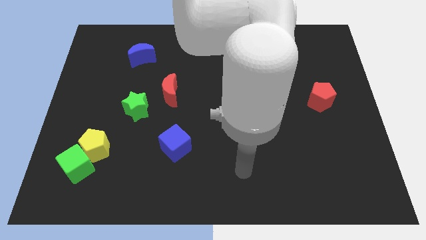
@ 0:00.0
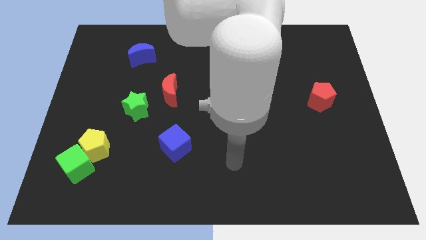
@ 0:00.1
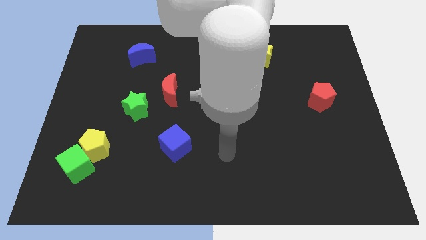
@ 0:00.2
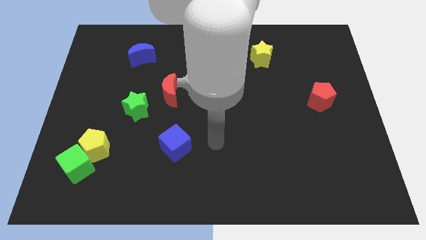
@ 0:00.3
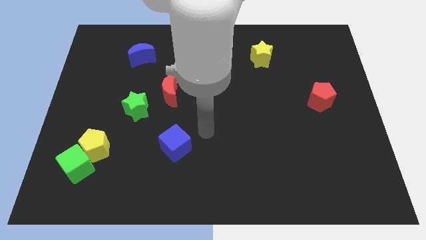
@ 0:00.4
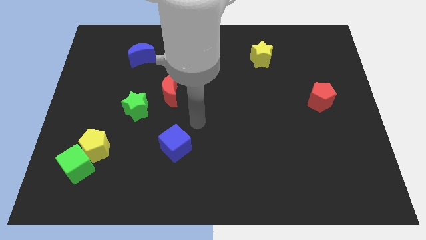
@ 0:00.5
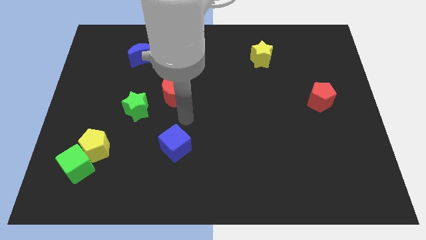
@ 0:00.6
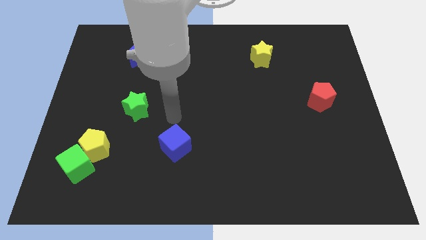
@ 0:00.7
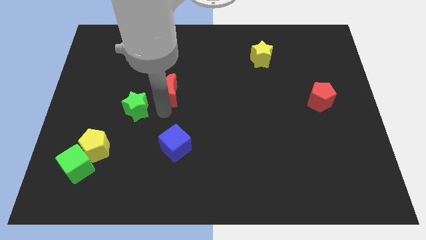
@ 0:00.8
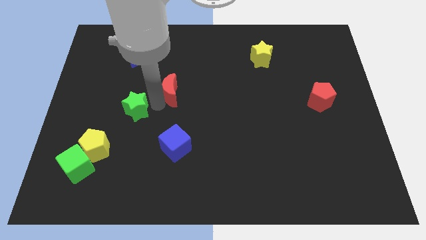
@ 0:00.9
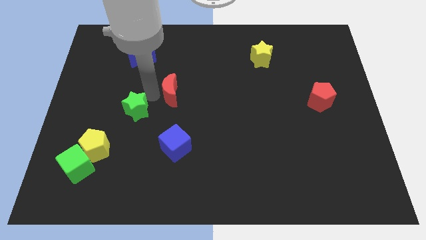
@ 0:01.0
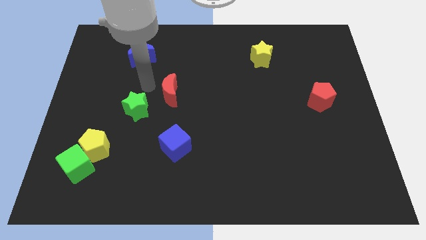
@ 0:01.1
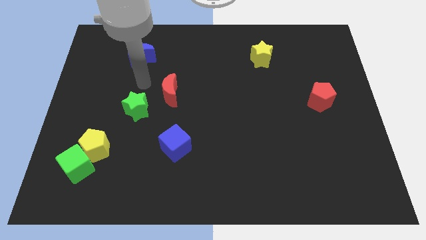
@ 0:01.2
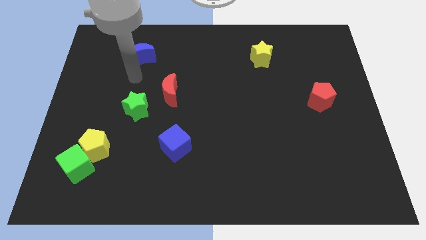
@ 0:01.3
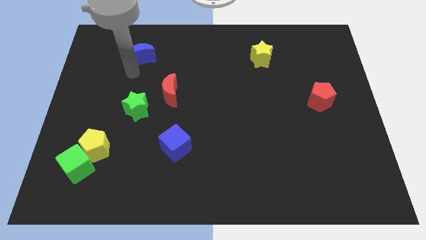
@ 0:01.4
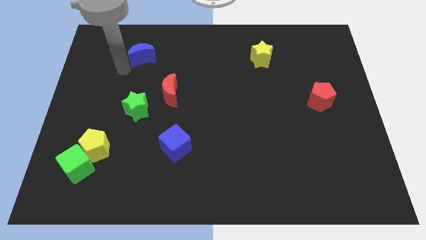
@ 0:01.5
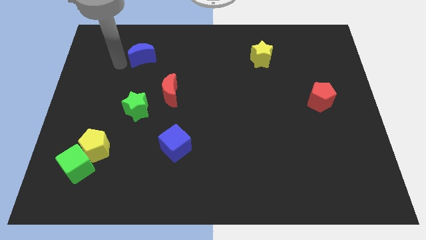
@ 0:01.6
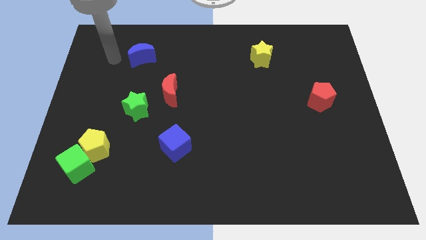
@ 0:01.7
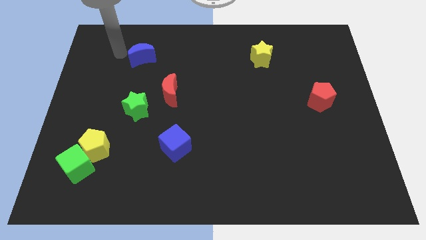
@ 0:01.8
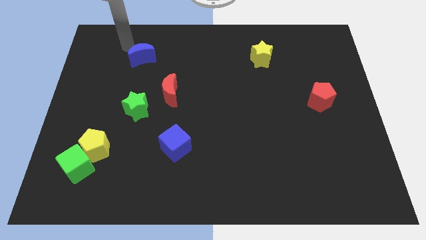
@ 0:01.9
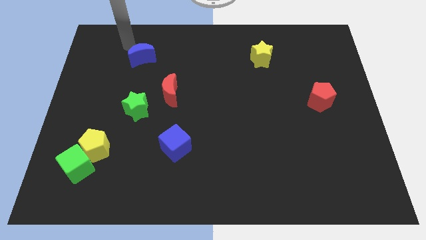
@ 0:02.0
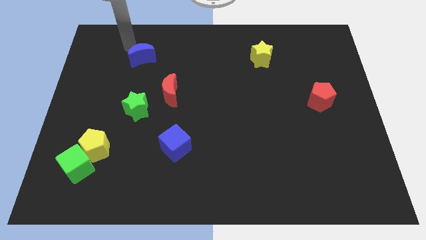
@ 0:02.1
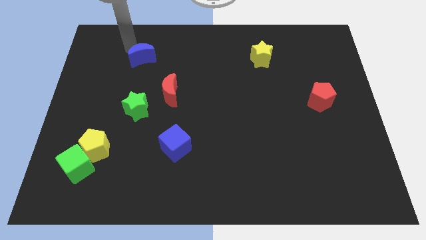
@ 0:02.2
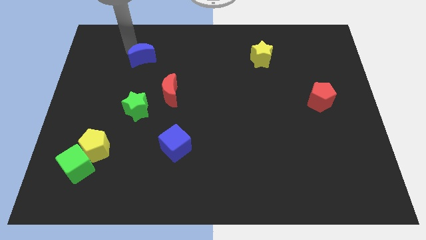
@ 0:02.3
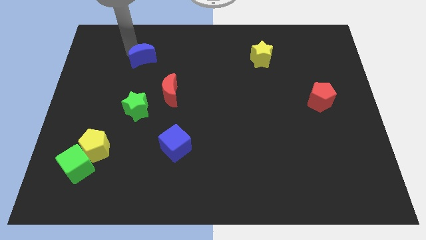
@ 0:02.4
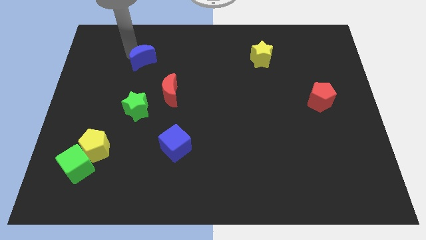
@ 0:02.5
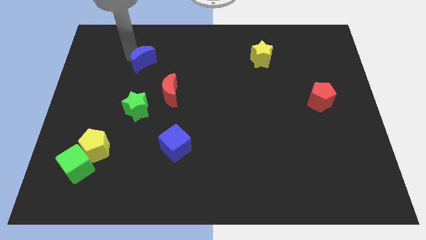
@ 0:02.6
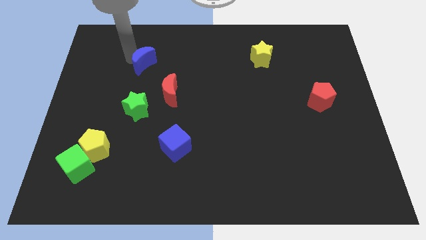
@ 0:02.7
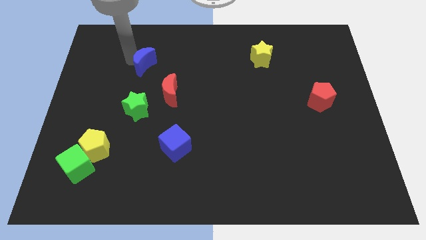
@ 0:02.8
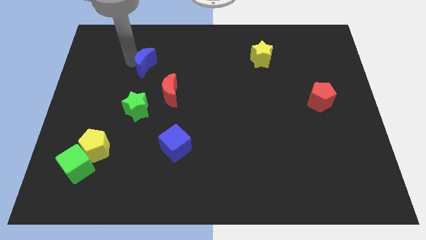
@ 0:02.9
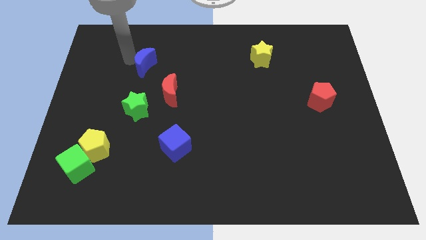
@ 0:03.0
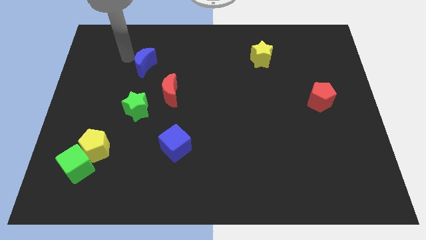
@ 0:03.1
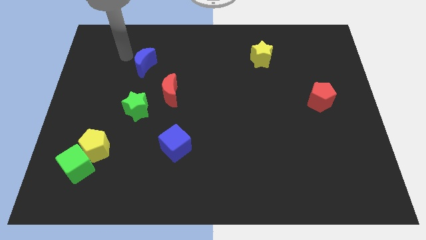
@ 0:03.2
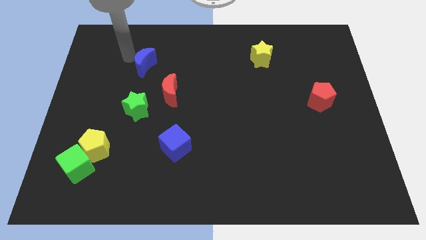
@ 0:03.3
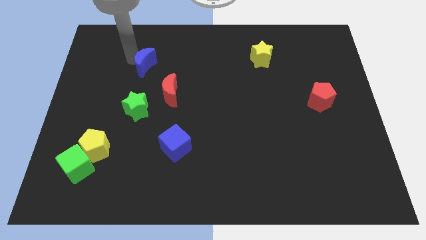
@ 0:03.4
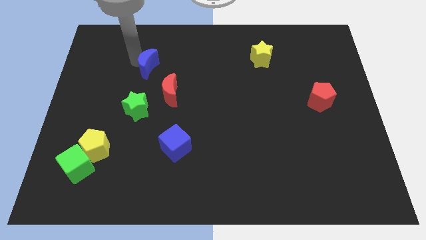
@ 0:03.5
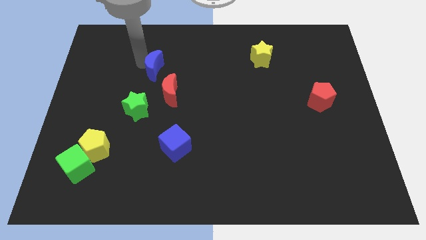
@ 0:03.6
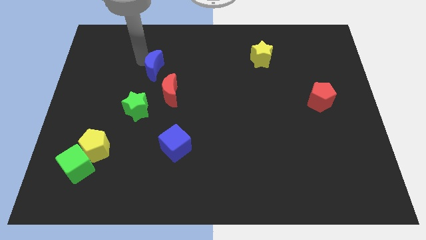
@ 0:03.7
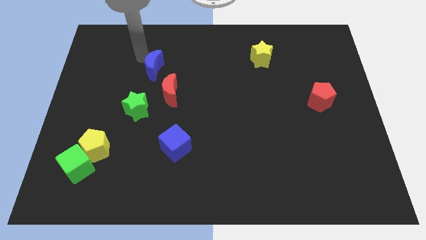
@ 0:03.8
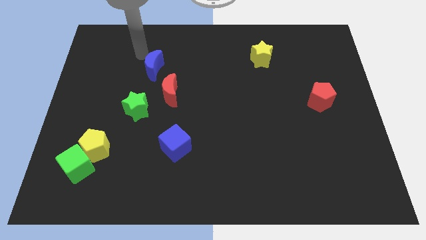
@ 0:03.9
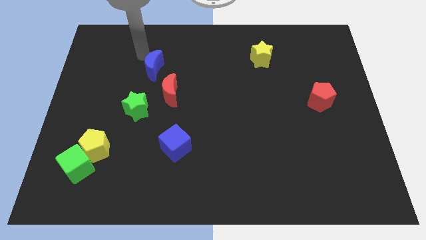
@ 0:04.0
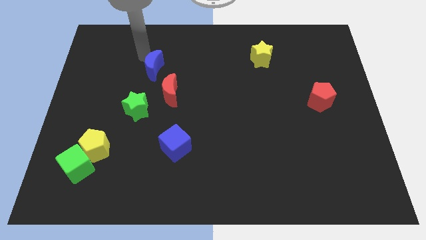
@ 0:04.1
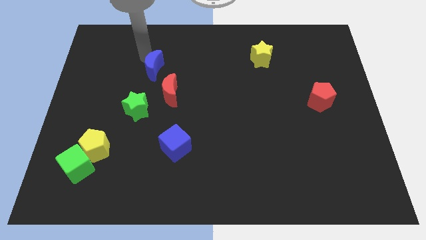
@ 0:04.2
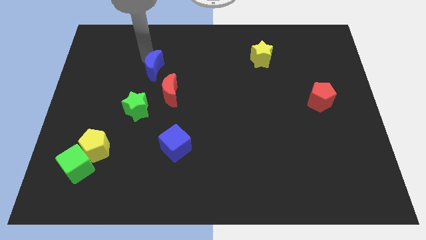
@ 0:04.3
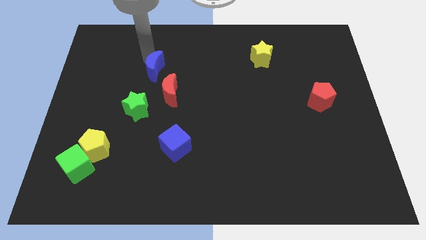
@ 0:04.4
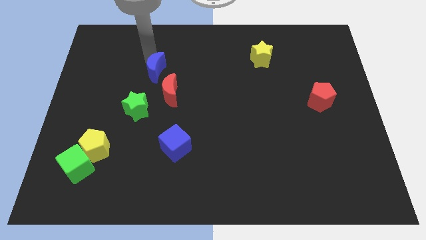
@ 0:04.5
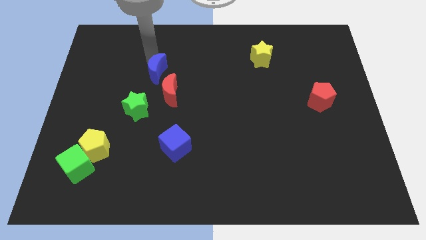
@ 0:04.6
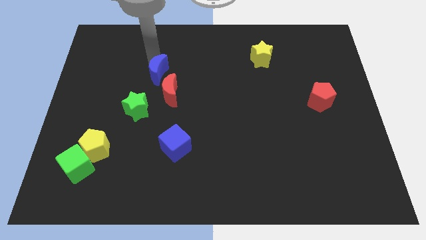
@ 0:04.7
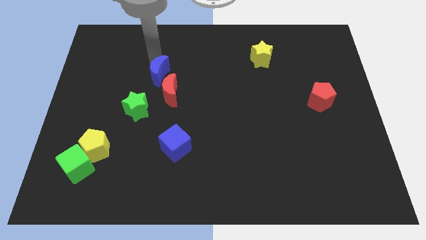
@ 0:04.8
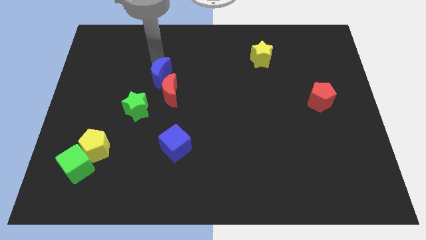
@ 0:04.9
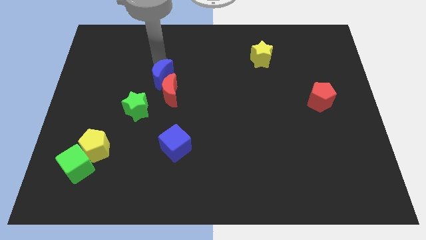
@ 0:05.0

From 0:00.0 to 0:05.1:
move the blue moon to the red moon

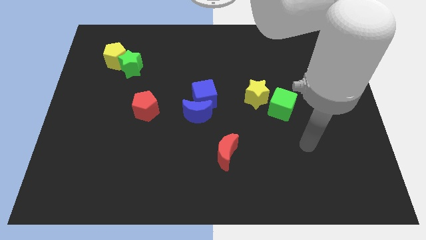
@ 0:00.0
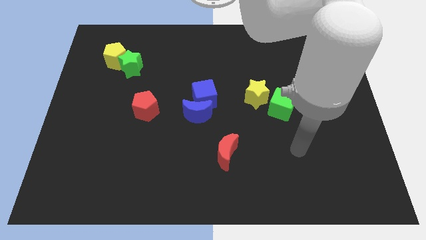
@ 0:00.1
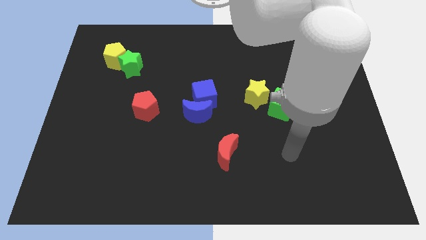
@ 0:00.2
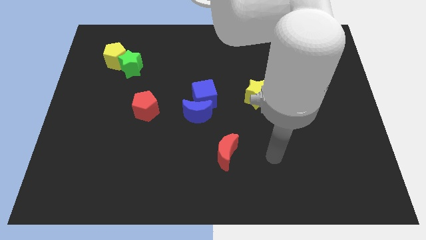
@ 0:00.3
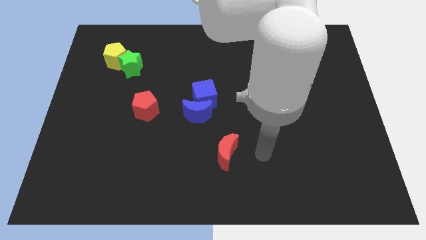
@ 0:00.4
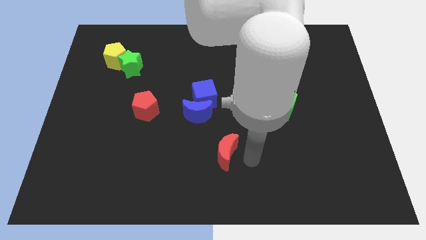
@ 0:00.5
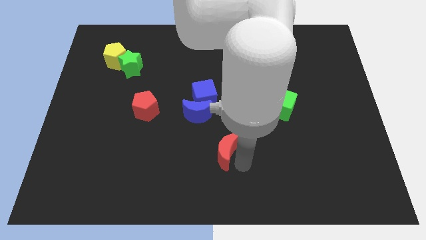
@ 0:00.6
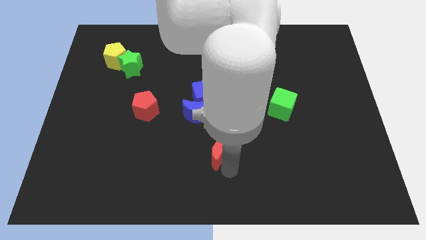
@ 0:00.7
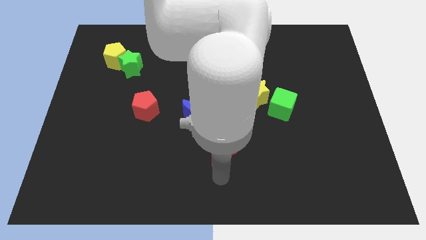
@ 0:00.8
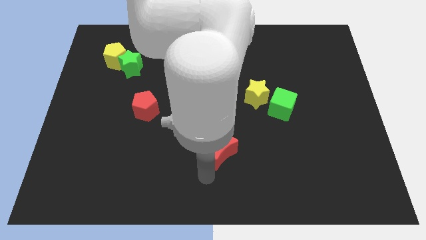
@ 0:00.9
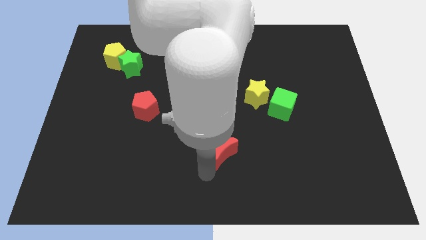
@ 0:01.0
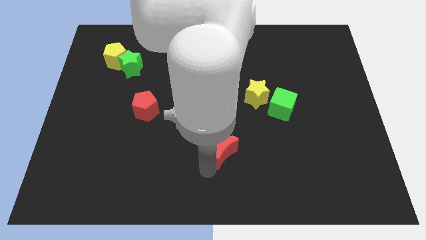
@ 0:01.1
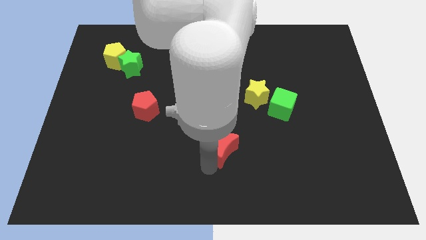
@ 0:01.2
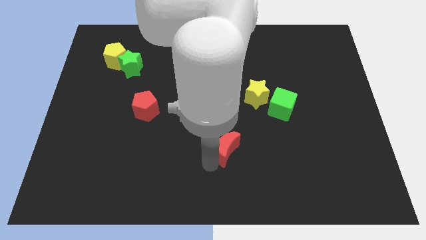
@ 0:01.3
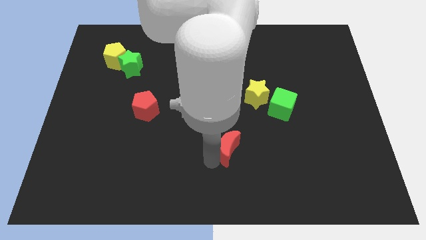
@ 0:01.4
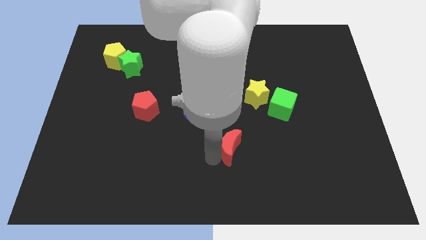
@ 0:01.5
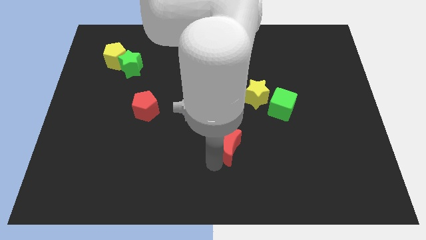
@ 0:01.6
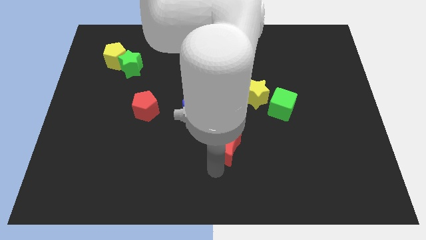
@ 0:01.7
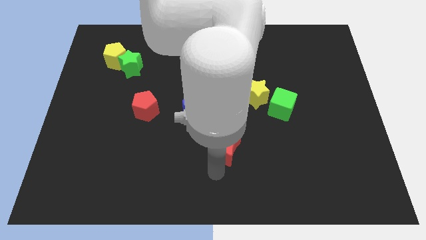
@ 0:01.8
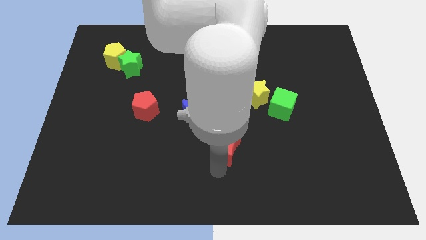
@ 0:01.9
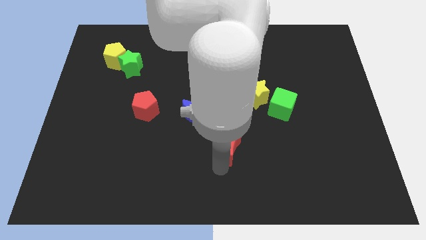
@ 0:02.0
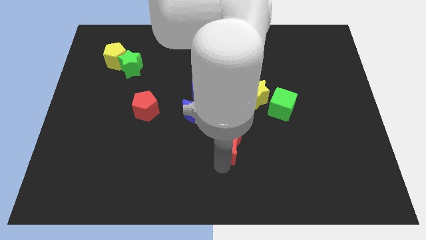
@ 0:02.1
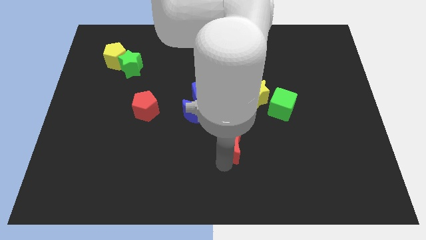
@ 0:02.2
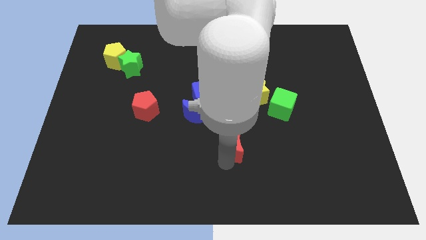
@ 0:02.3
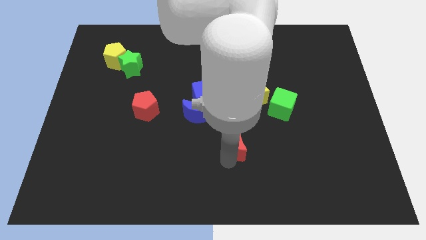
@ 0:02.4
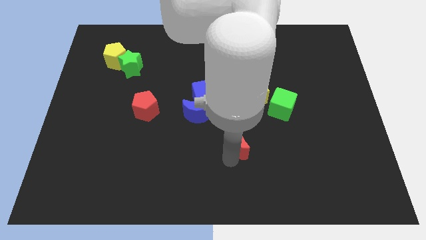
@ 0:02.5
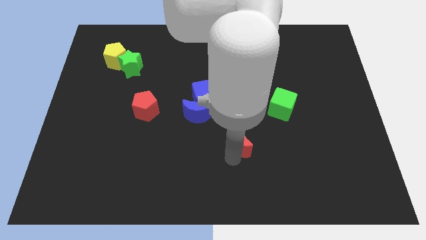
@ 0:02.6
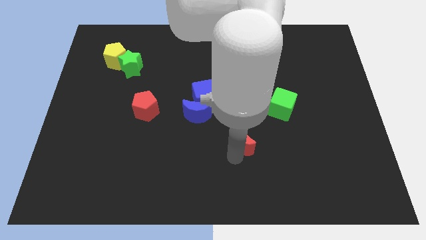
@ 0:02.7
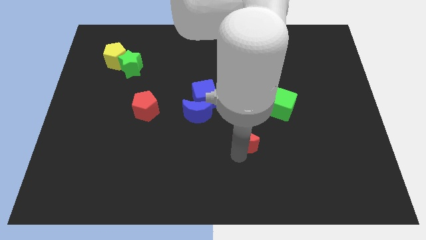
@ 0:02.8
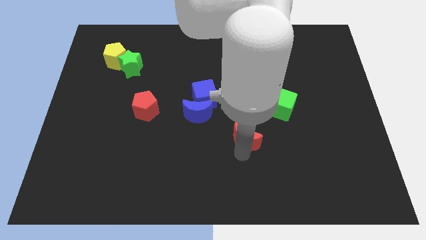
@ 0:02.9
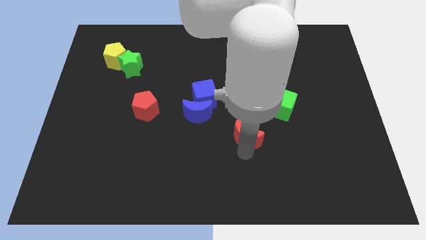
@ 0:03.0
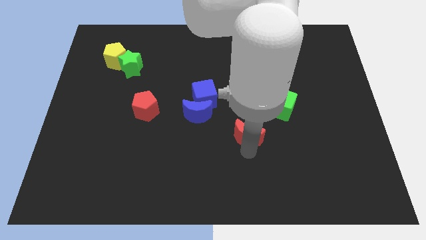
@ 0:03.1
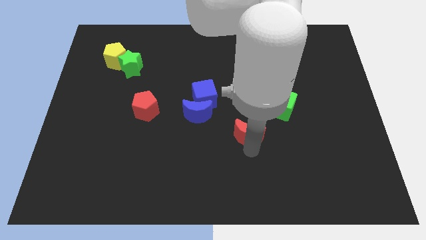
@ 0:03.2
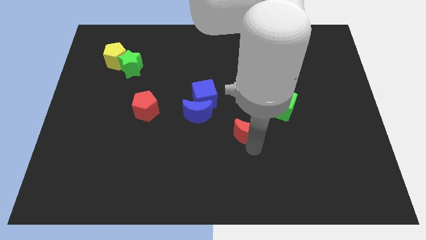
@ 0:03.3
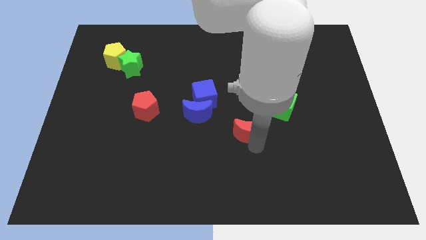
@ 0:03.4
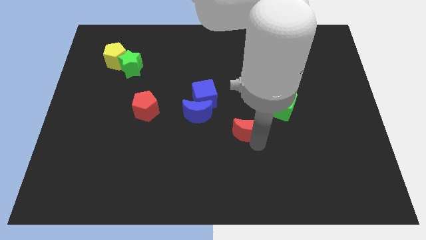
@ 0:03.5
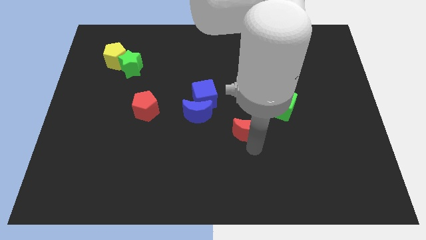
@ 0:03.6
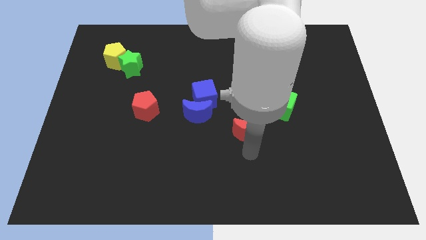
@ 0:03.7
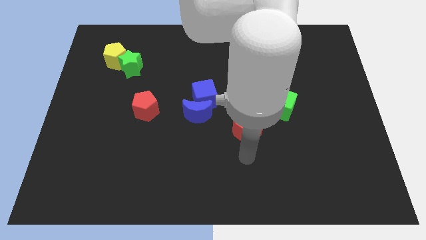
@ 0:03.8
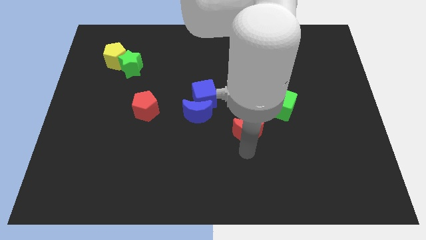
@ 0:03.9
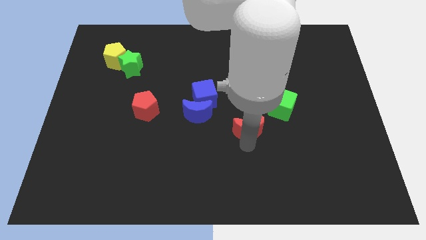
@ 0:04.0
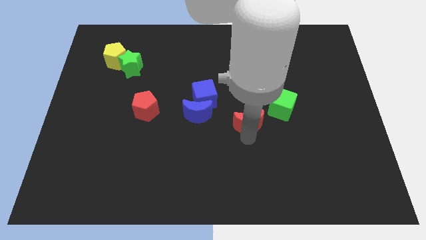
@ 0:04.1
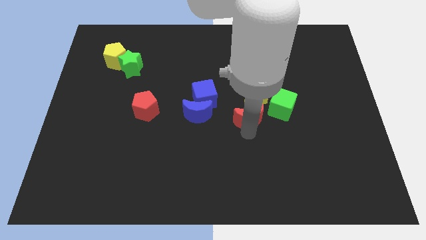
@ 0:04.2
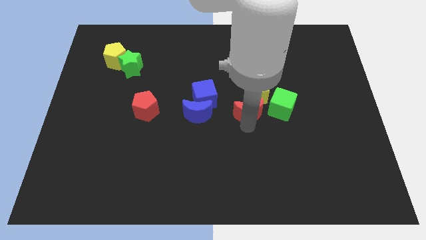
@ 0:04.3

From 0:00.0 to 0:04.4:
slide the red moon towards the yellow star
